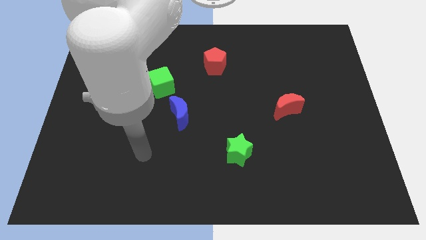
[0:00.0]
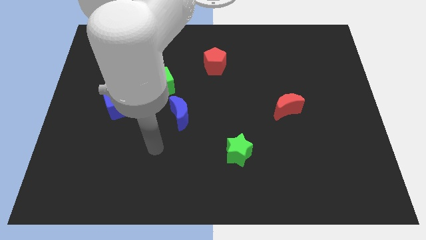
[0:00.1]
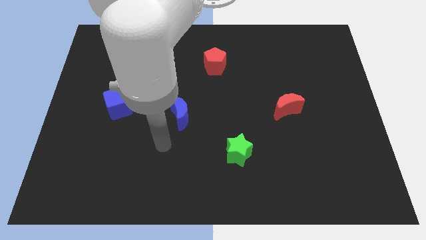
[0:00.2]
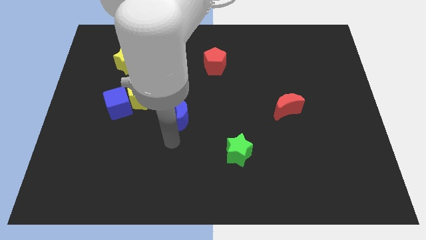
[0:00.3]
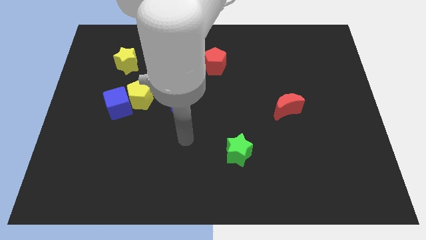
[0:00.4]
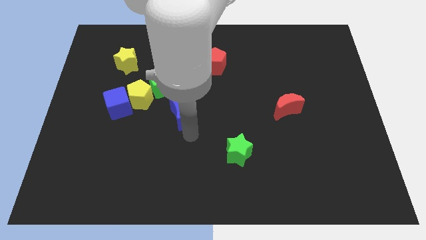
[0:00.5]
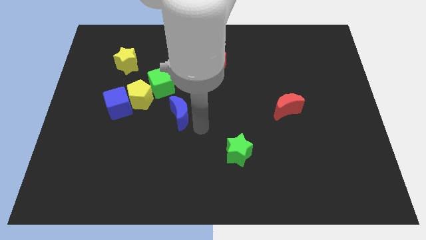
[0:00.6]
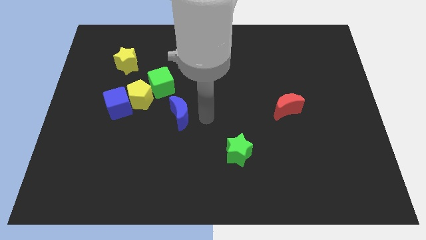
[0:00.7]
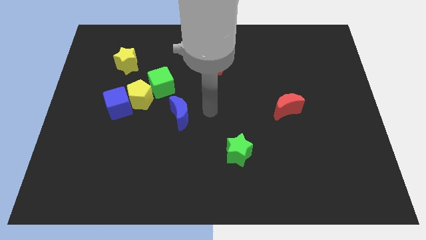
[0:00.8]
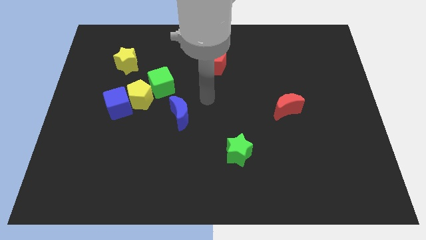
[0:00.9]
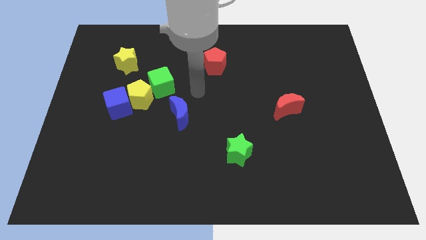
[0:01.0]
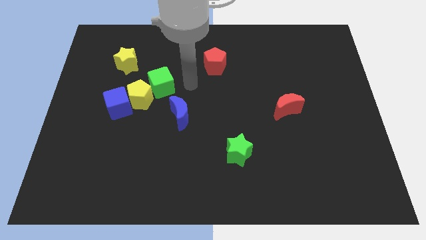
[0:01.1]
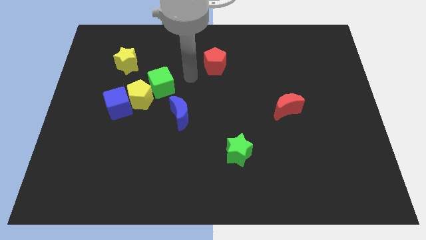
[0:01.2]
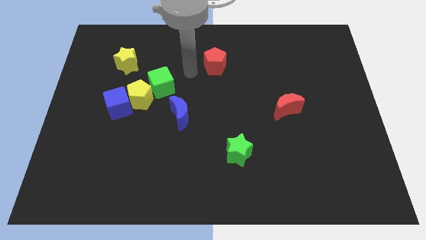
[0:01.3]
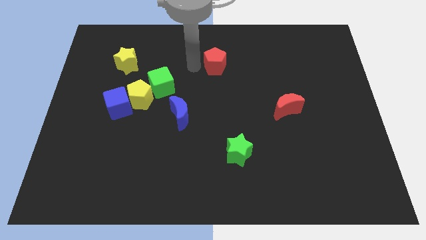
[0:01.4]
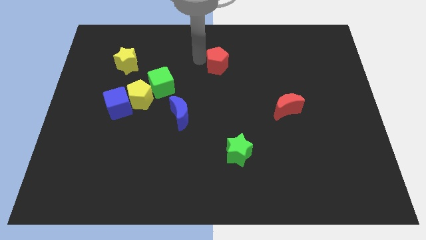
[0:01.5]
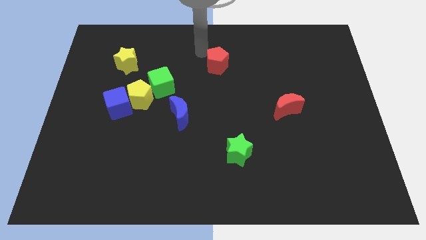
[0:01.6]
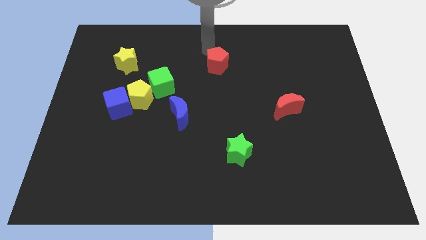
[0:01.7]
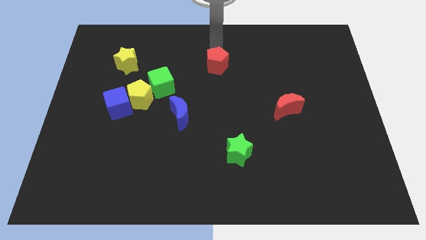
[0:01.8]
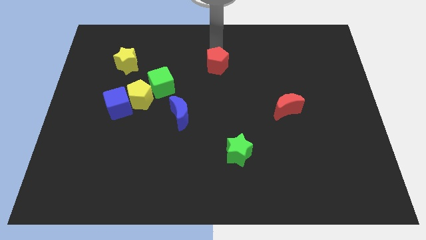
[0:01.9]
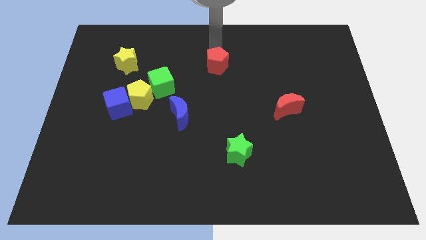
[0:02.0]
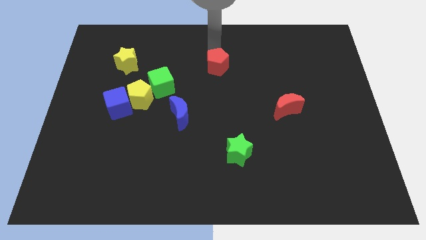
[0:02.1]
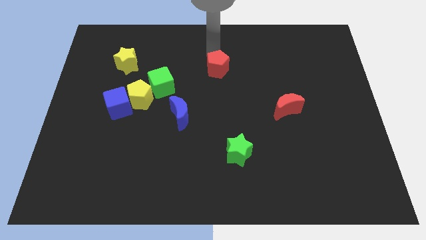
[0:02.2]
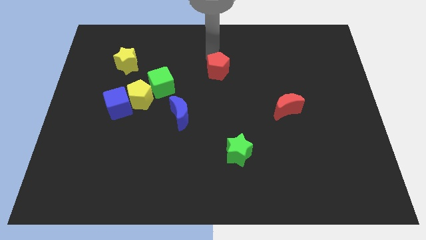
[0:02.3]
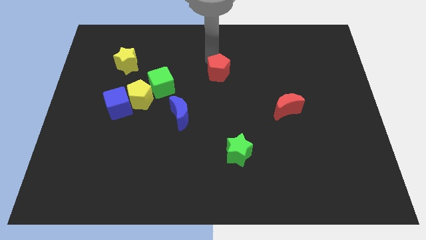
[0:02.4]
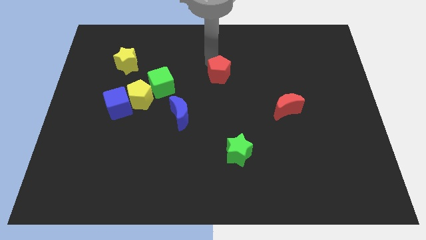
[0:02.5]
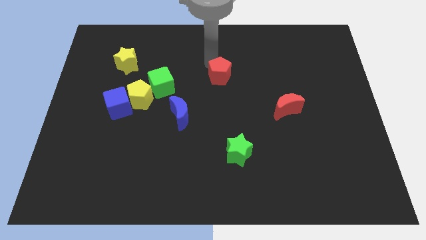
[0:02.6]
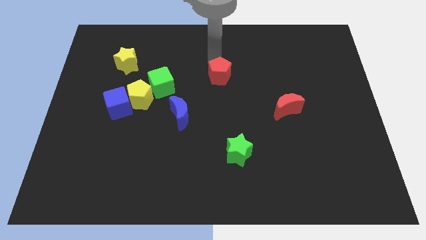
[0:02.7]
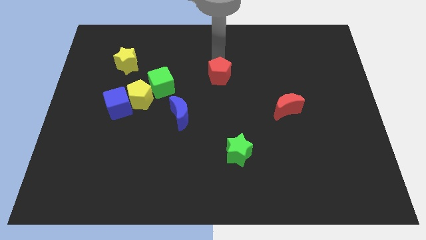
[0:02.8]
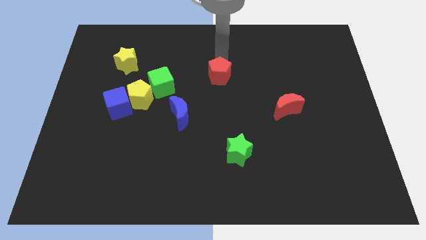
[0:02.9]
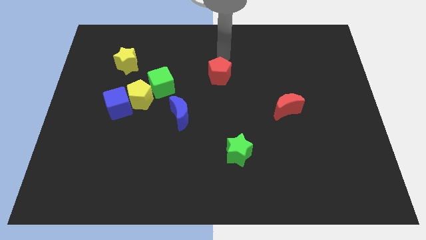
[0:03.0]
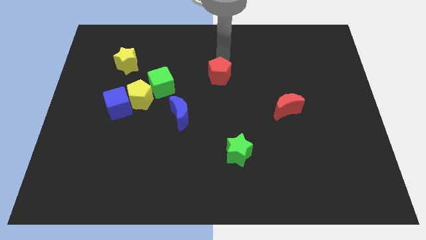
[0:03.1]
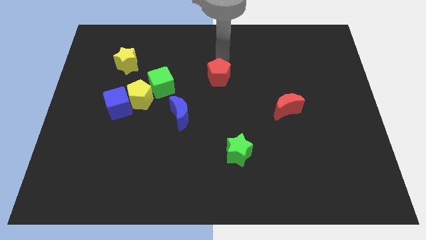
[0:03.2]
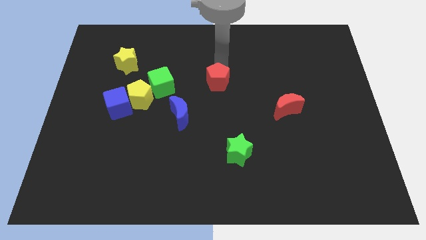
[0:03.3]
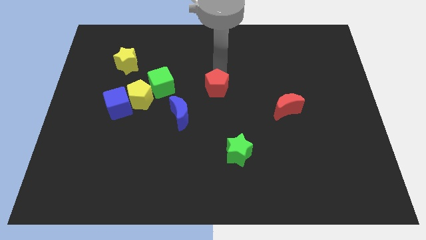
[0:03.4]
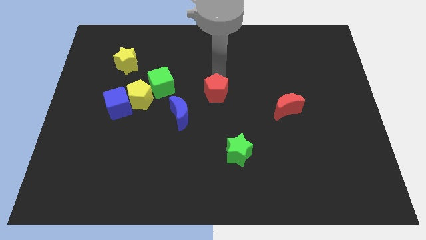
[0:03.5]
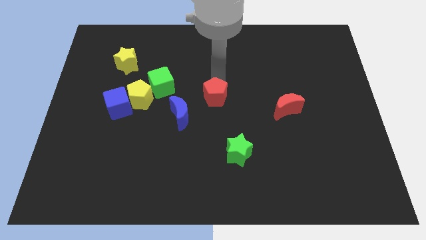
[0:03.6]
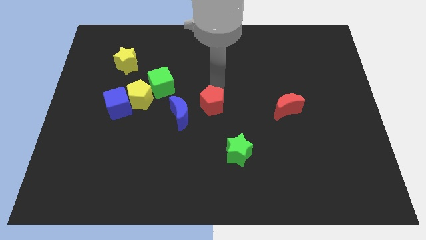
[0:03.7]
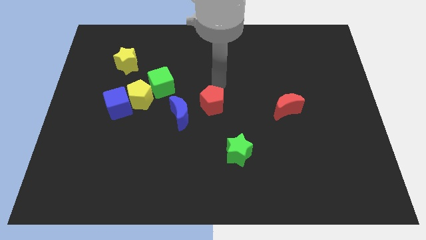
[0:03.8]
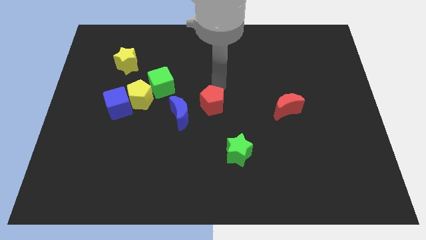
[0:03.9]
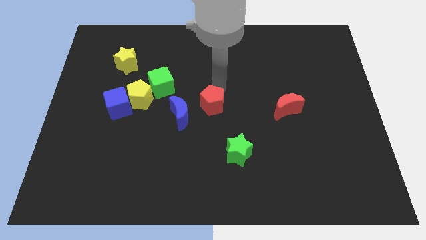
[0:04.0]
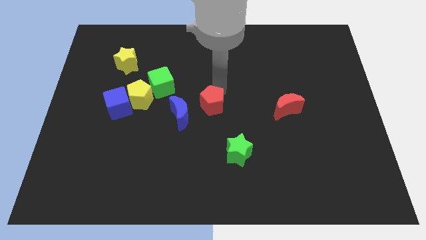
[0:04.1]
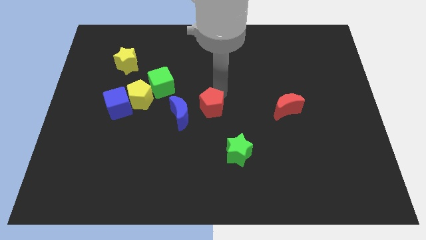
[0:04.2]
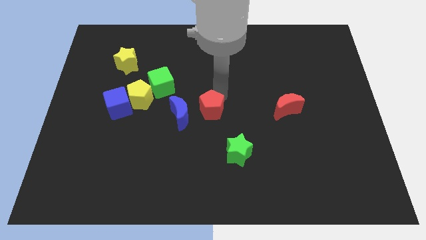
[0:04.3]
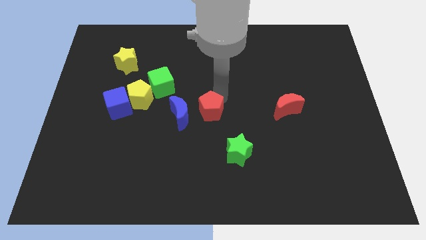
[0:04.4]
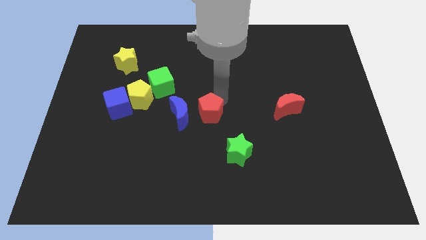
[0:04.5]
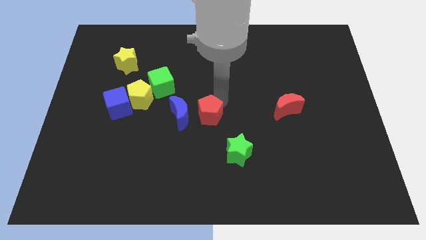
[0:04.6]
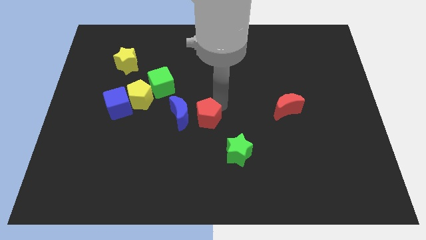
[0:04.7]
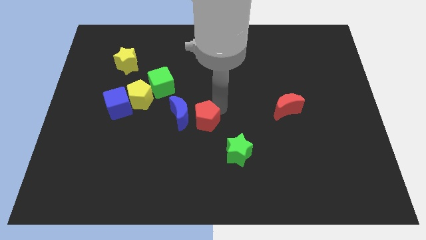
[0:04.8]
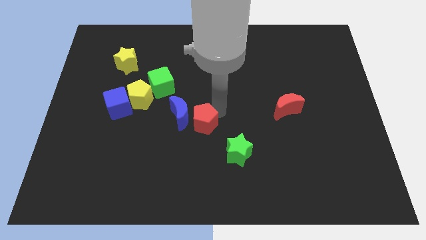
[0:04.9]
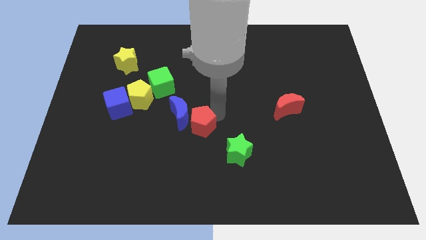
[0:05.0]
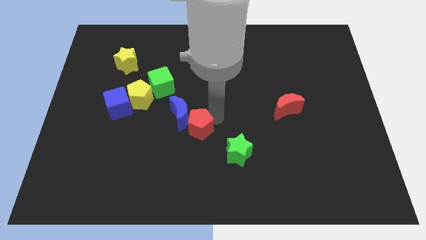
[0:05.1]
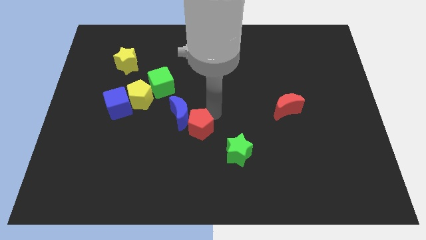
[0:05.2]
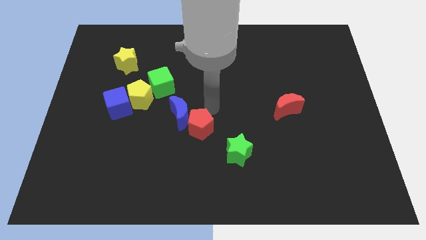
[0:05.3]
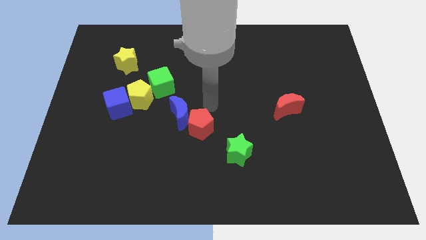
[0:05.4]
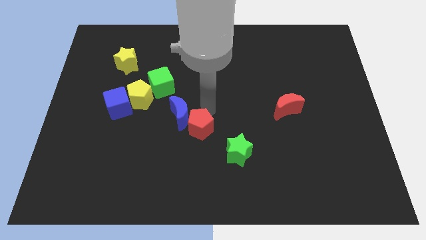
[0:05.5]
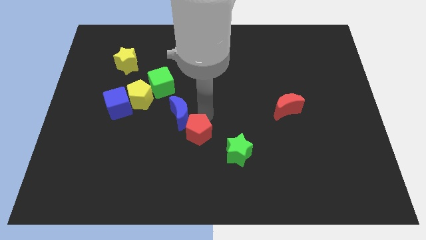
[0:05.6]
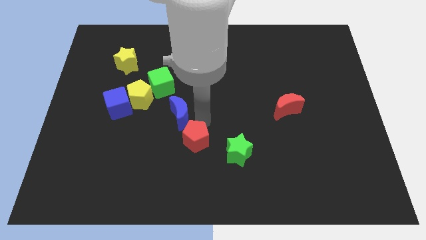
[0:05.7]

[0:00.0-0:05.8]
move the red pentagon just left of the green star

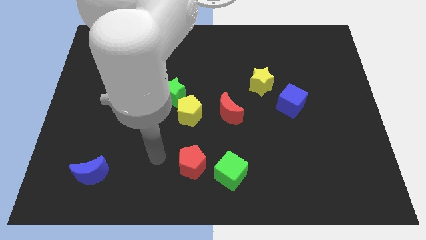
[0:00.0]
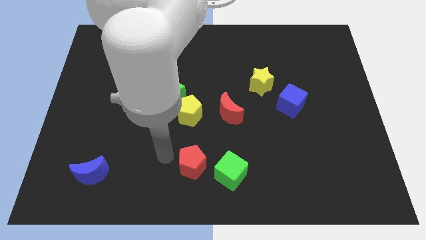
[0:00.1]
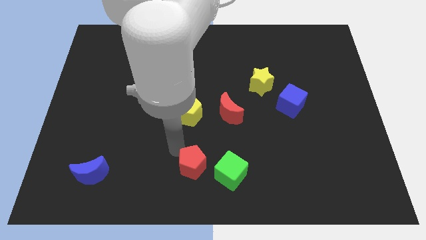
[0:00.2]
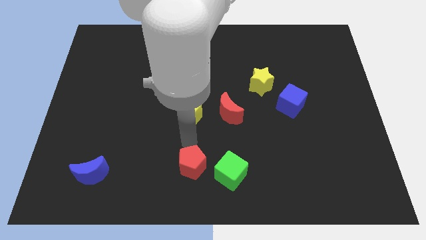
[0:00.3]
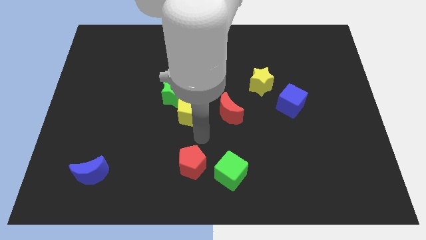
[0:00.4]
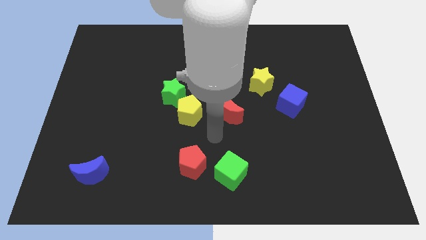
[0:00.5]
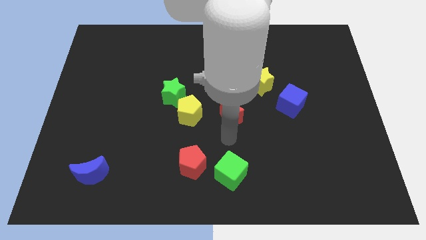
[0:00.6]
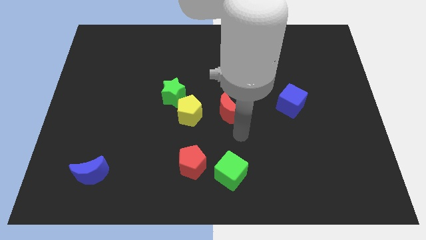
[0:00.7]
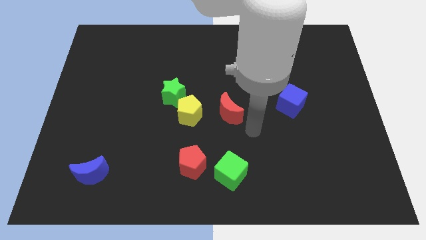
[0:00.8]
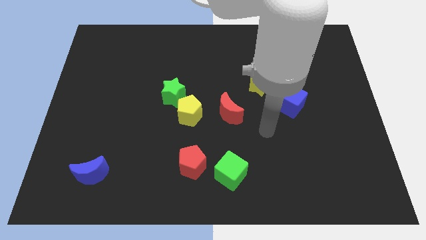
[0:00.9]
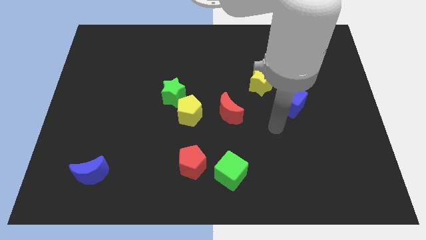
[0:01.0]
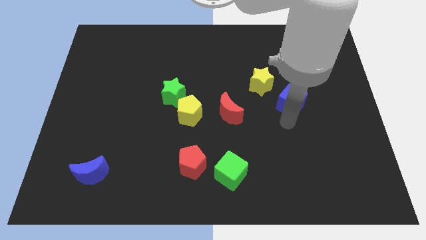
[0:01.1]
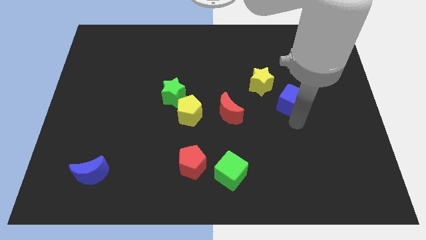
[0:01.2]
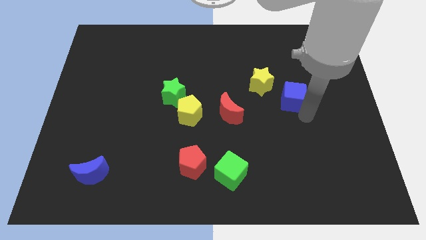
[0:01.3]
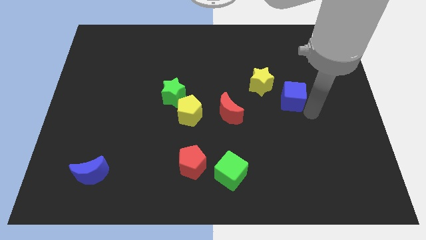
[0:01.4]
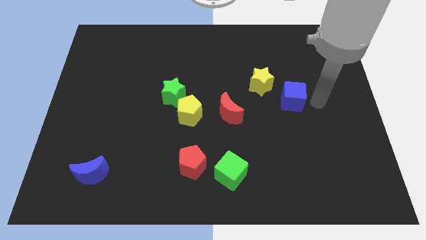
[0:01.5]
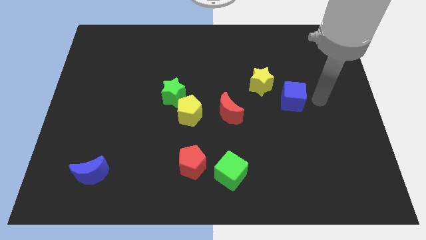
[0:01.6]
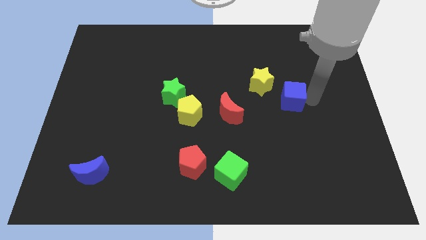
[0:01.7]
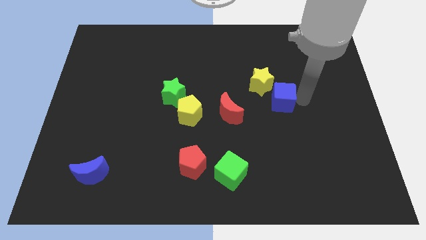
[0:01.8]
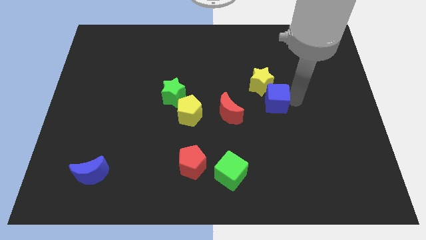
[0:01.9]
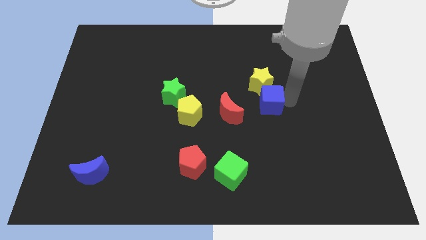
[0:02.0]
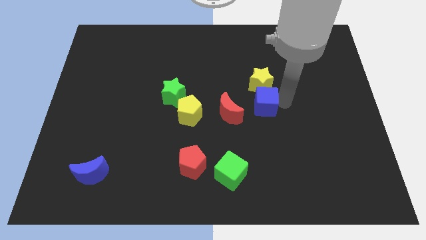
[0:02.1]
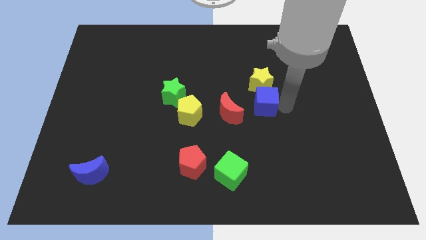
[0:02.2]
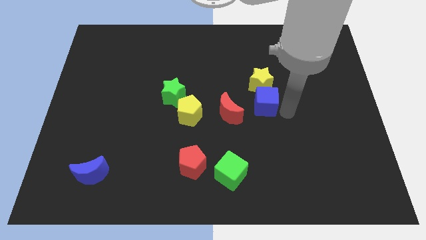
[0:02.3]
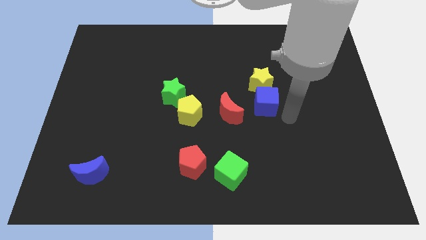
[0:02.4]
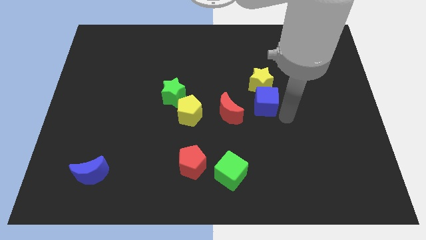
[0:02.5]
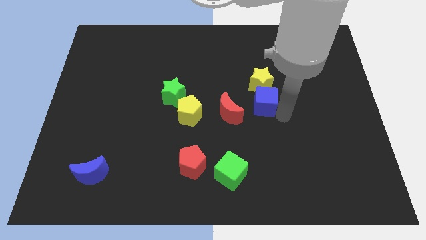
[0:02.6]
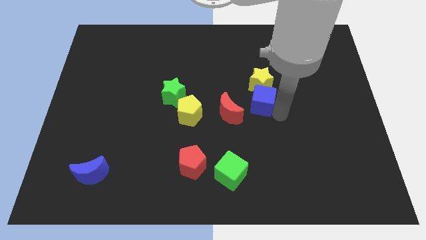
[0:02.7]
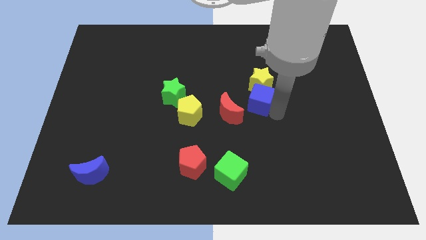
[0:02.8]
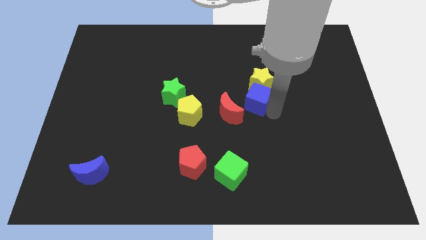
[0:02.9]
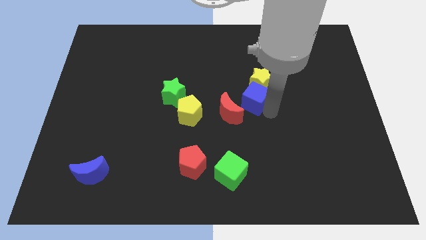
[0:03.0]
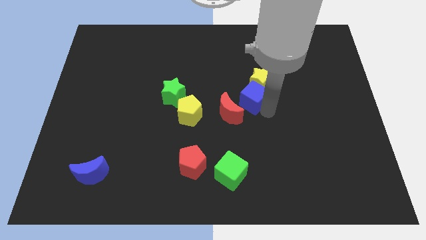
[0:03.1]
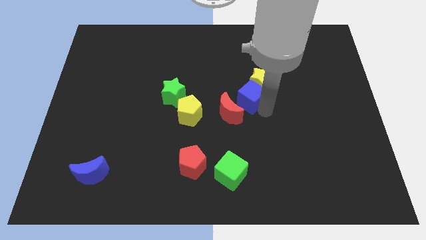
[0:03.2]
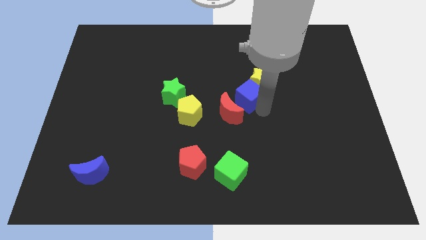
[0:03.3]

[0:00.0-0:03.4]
put the blue cube to the top of the red moon
